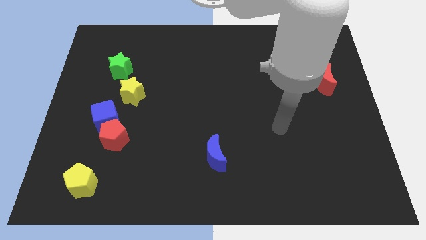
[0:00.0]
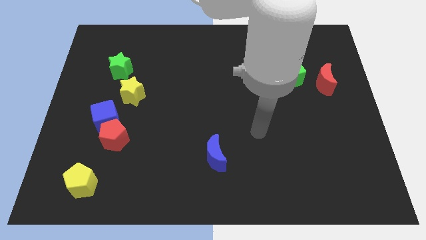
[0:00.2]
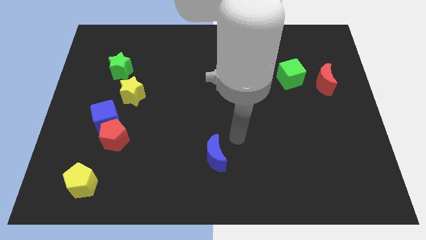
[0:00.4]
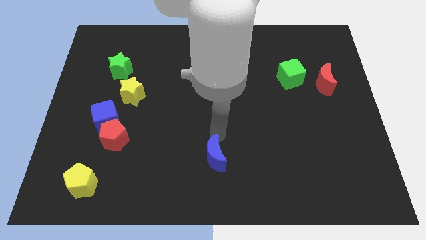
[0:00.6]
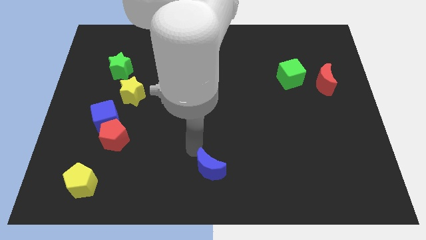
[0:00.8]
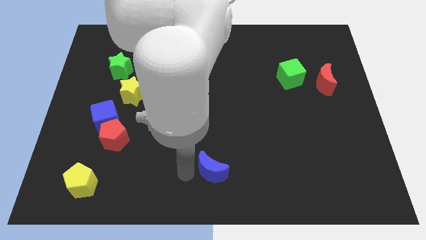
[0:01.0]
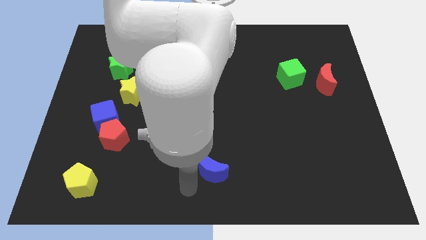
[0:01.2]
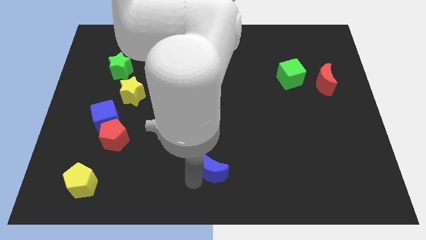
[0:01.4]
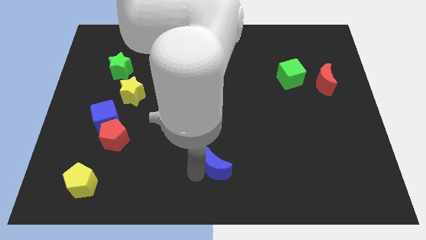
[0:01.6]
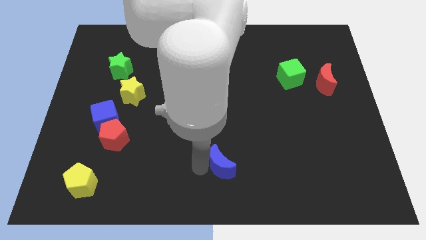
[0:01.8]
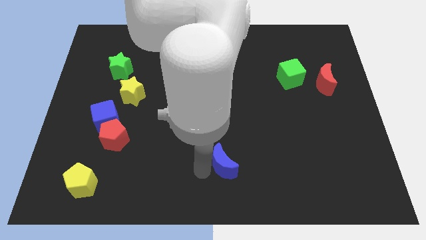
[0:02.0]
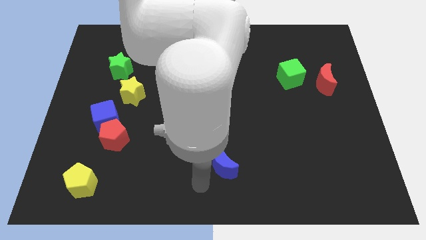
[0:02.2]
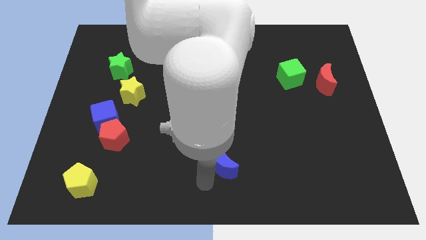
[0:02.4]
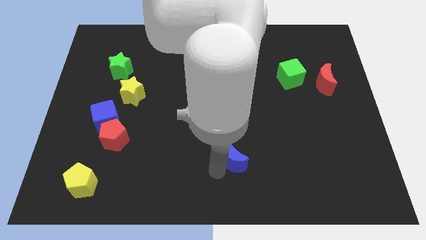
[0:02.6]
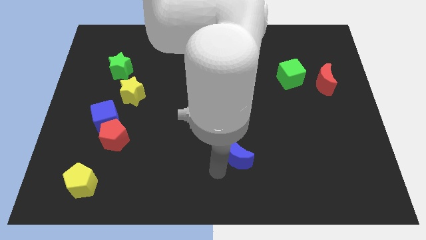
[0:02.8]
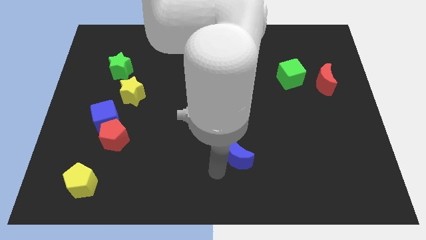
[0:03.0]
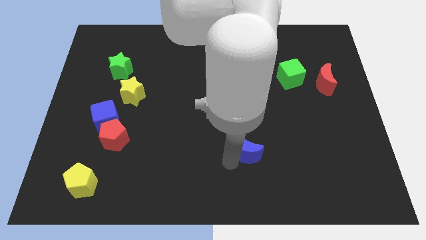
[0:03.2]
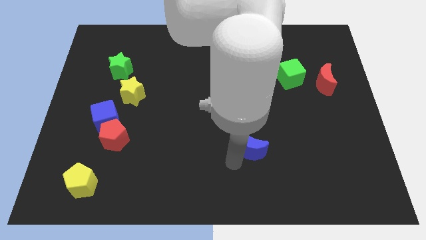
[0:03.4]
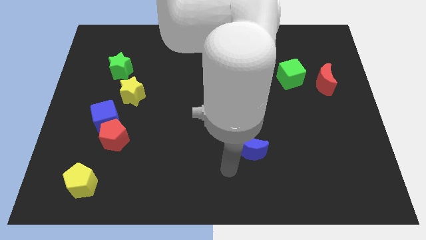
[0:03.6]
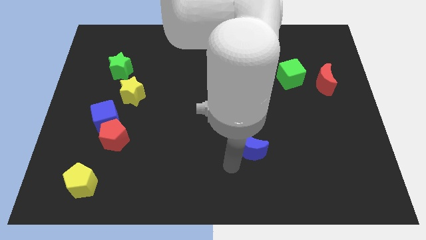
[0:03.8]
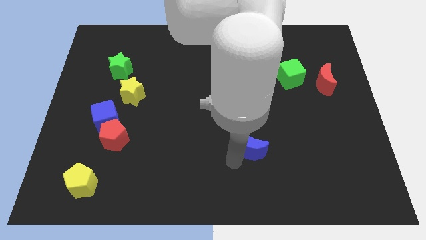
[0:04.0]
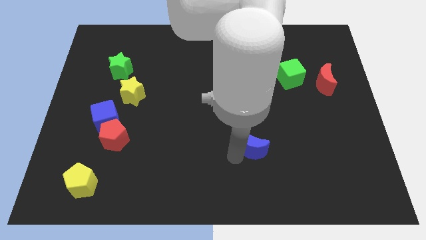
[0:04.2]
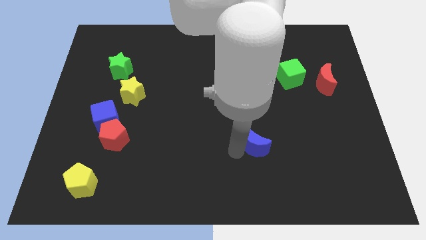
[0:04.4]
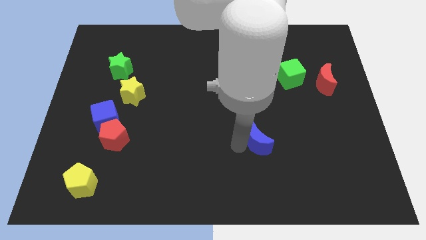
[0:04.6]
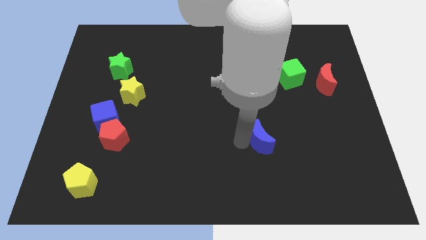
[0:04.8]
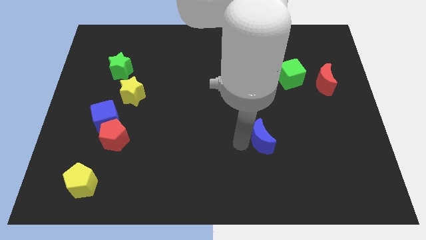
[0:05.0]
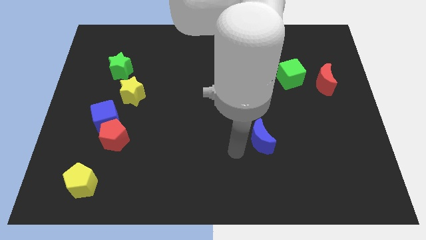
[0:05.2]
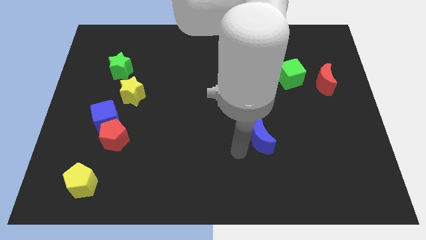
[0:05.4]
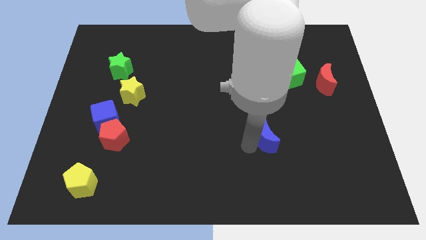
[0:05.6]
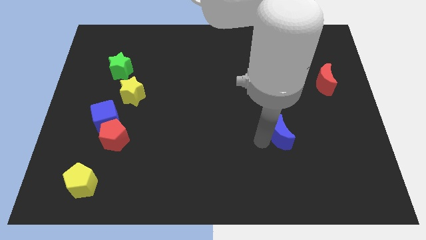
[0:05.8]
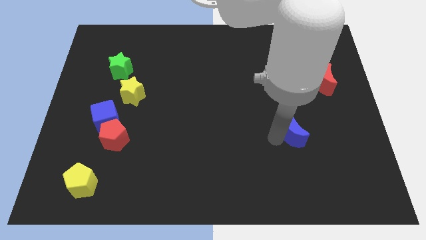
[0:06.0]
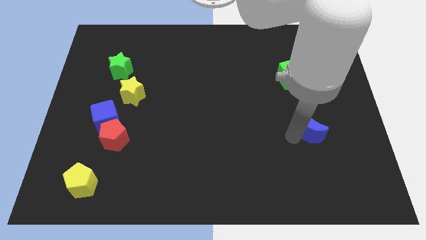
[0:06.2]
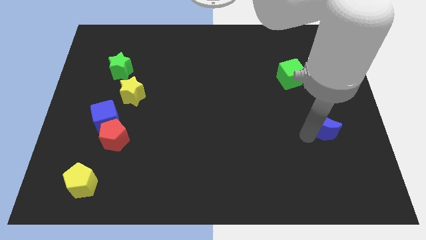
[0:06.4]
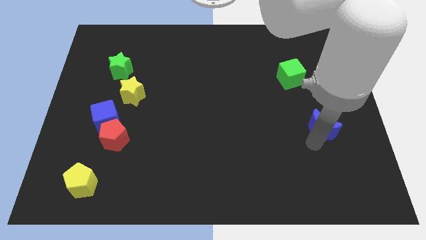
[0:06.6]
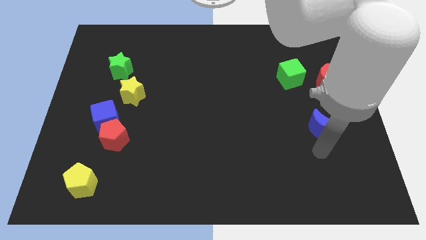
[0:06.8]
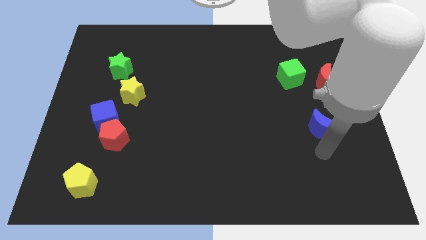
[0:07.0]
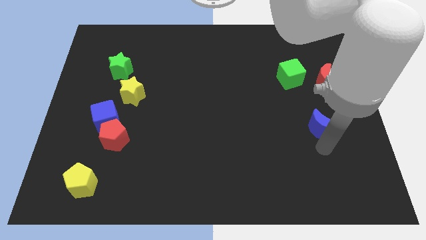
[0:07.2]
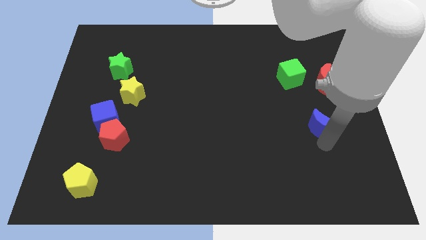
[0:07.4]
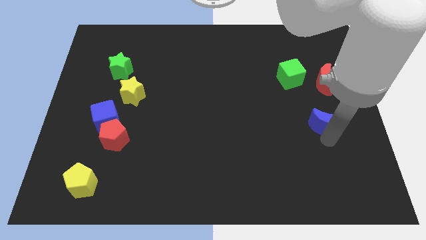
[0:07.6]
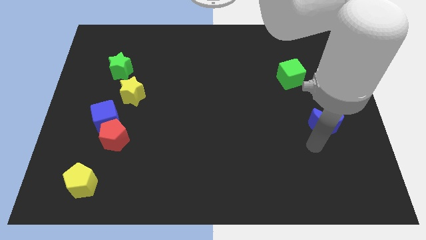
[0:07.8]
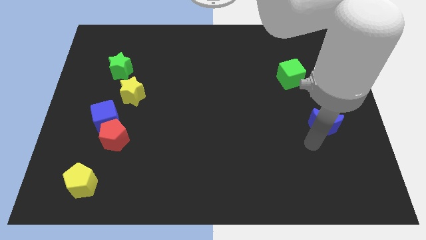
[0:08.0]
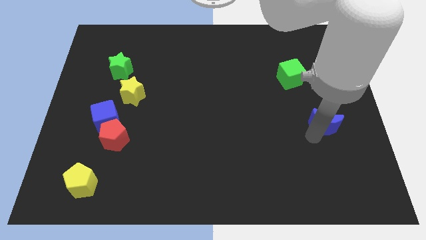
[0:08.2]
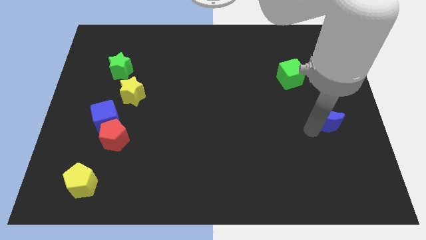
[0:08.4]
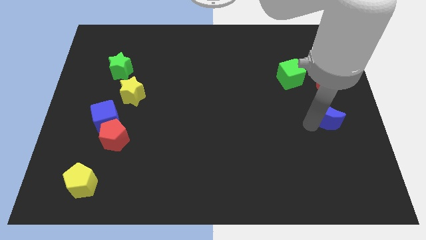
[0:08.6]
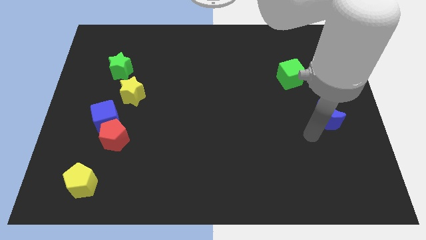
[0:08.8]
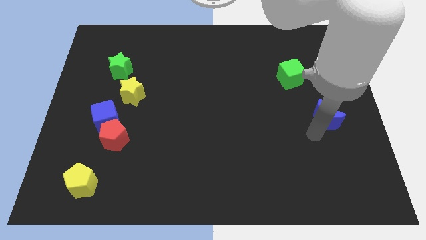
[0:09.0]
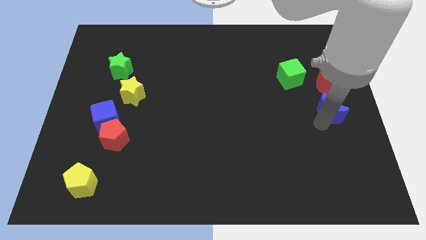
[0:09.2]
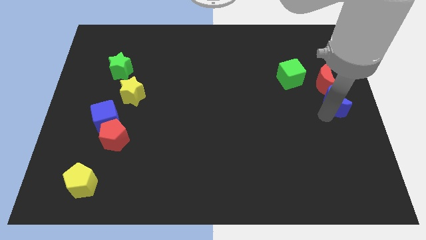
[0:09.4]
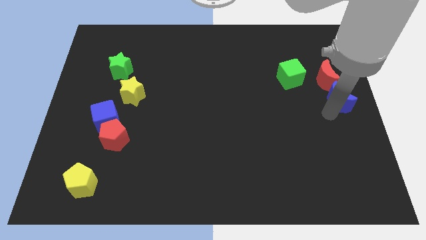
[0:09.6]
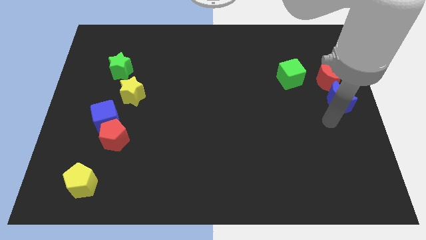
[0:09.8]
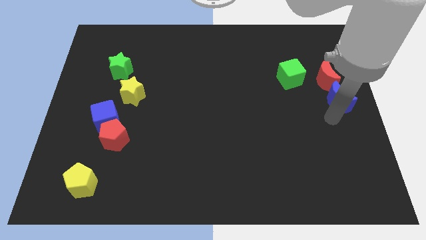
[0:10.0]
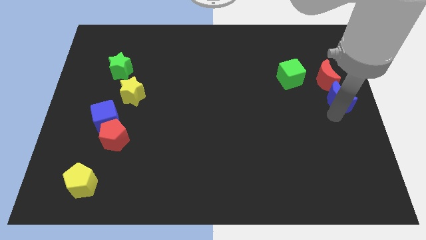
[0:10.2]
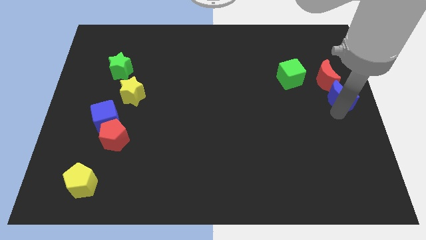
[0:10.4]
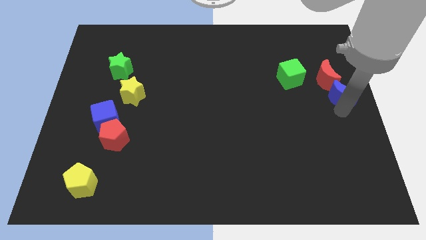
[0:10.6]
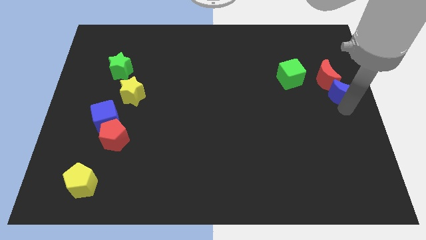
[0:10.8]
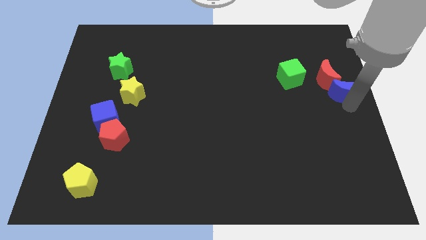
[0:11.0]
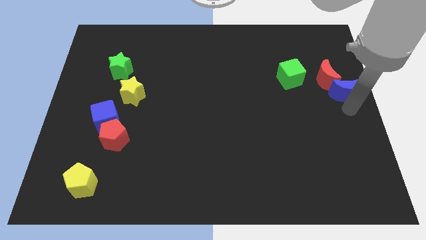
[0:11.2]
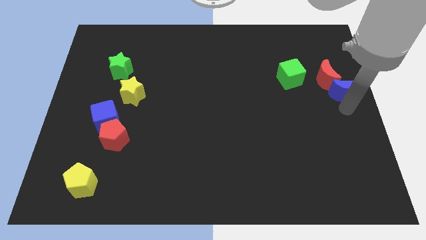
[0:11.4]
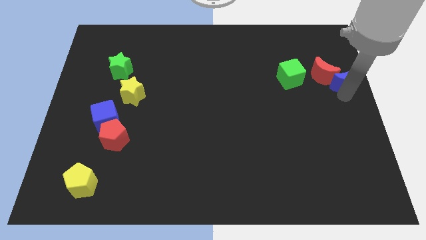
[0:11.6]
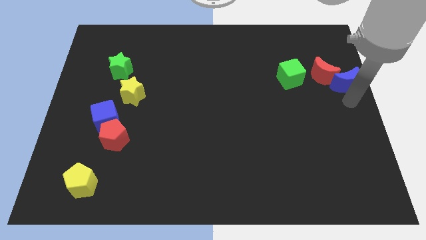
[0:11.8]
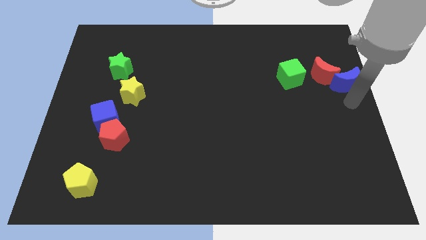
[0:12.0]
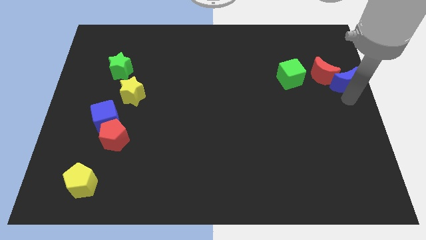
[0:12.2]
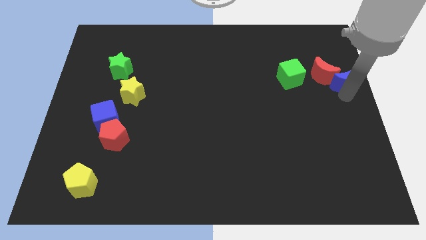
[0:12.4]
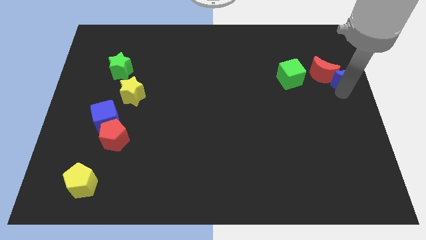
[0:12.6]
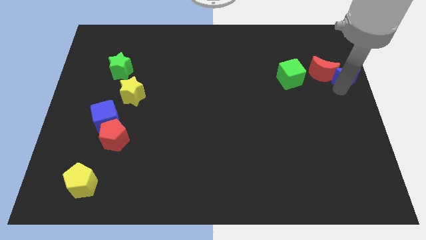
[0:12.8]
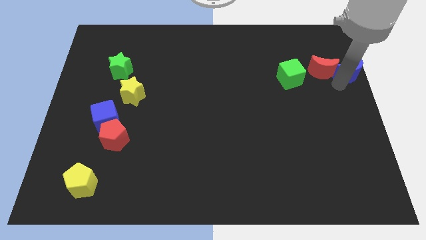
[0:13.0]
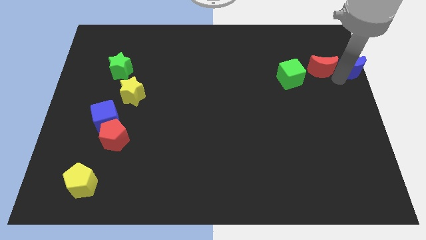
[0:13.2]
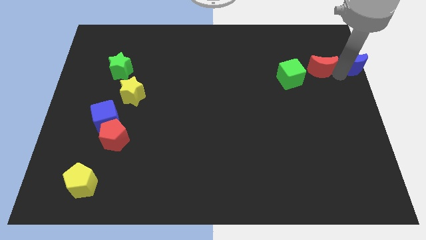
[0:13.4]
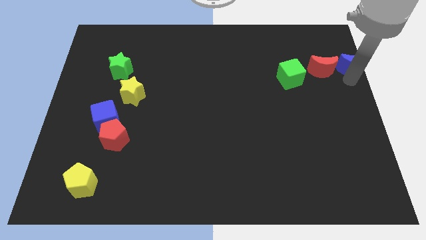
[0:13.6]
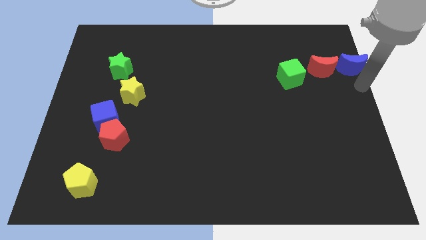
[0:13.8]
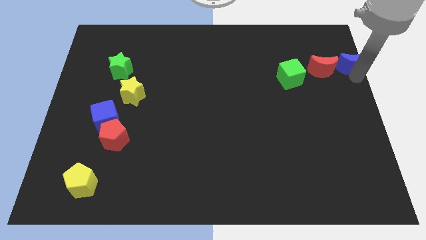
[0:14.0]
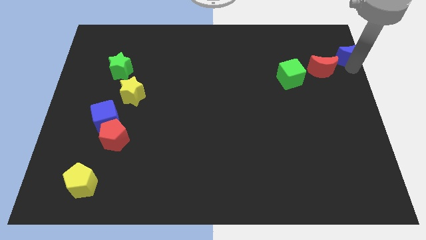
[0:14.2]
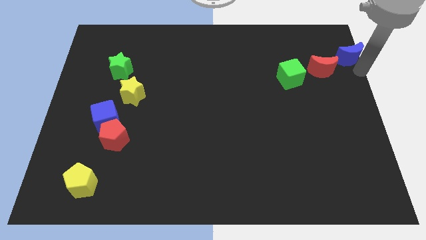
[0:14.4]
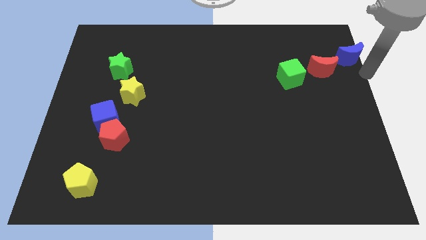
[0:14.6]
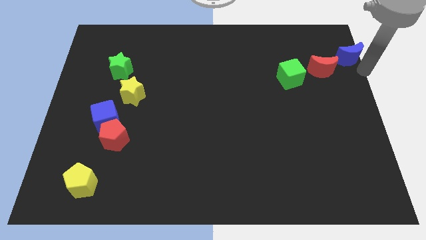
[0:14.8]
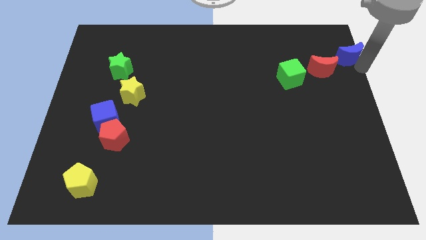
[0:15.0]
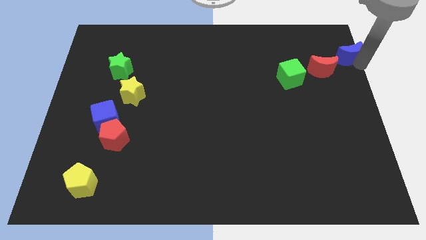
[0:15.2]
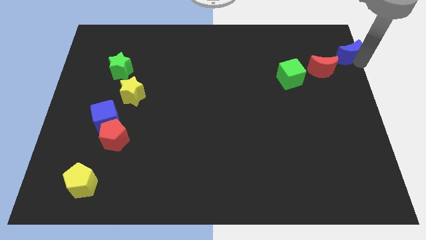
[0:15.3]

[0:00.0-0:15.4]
put the blue moon to the top right
